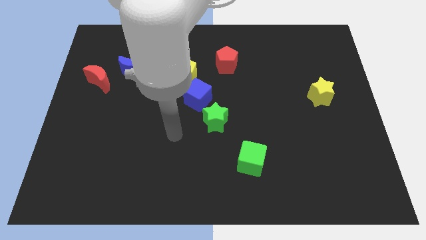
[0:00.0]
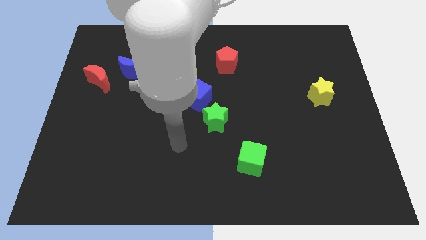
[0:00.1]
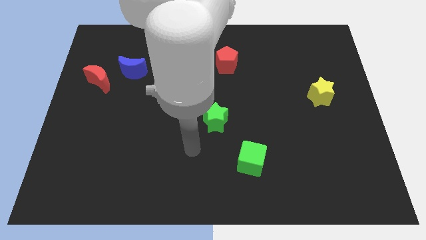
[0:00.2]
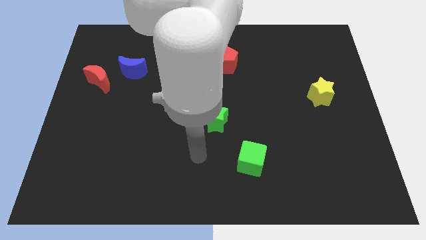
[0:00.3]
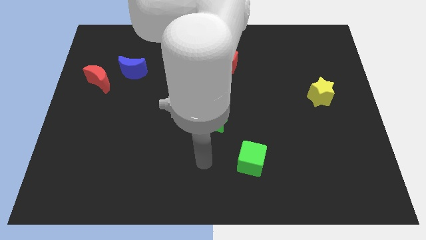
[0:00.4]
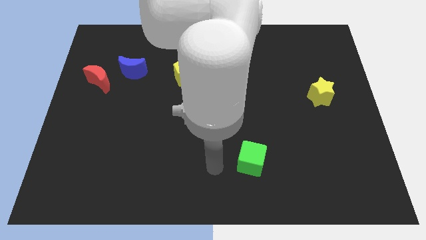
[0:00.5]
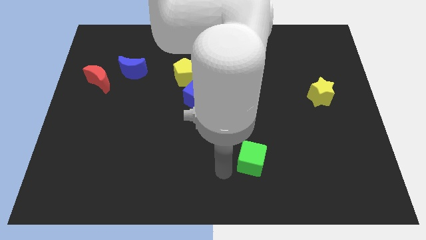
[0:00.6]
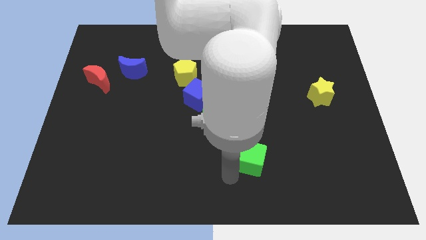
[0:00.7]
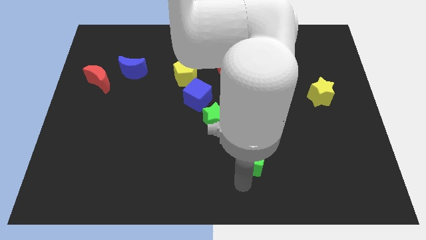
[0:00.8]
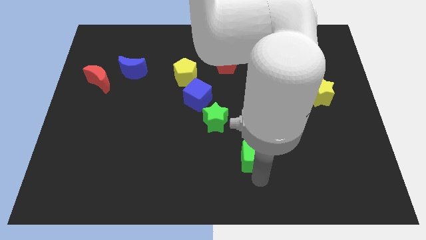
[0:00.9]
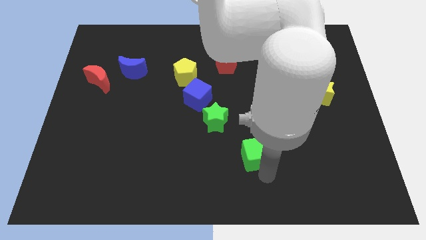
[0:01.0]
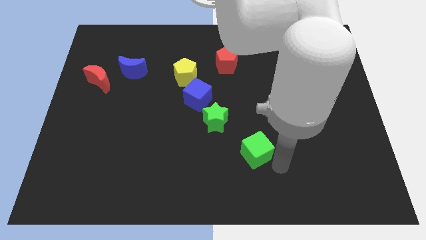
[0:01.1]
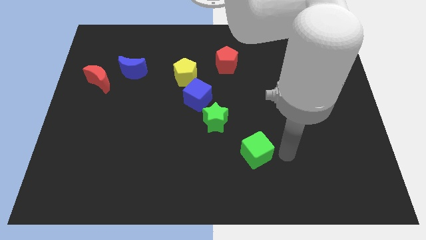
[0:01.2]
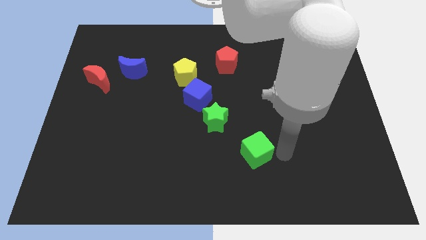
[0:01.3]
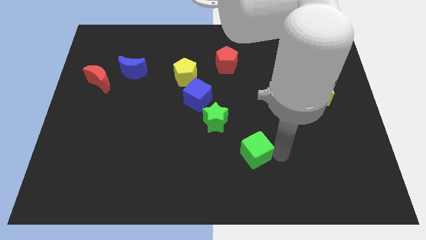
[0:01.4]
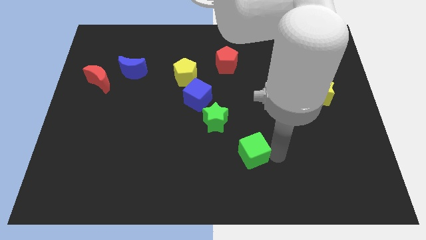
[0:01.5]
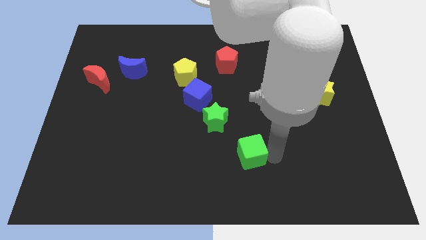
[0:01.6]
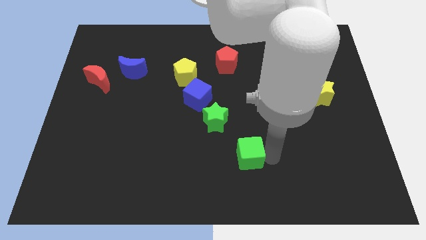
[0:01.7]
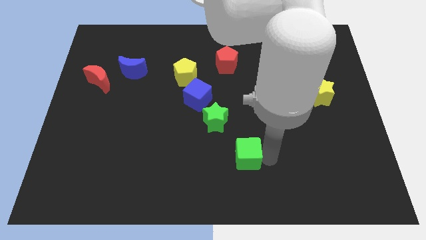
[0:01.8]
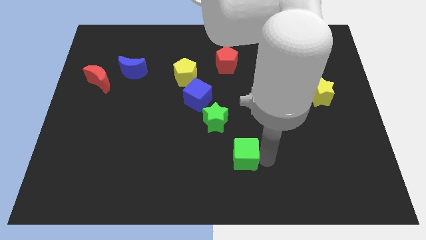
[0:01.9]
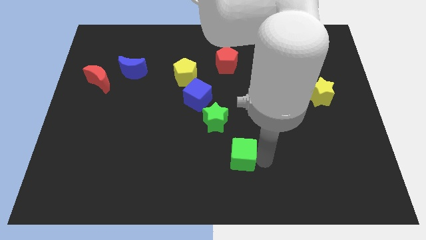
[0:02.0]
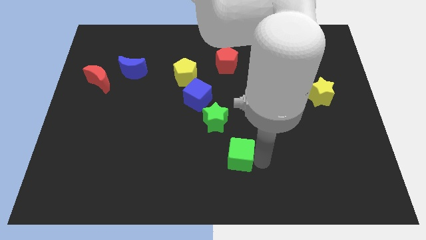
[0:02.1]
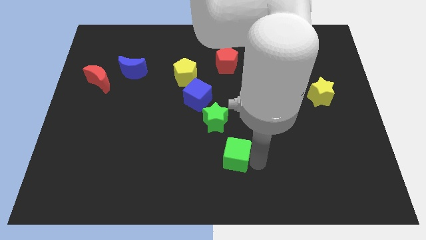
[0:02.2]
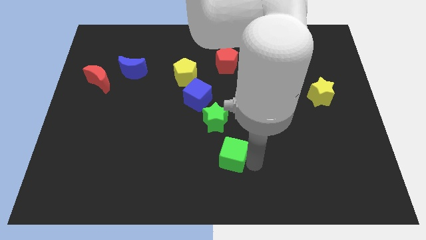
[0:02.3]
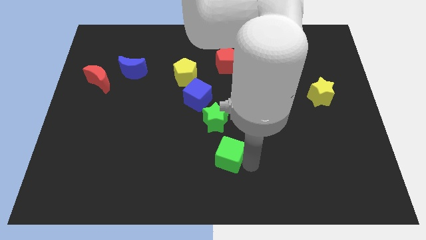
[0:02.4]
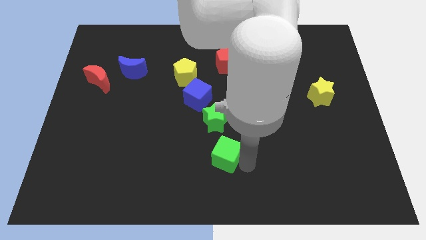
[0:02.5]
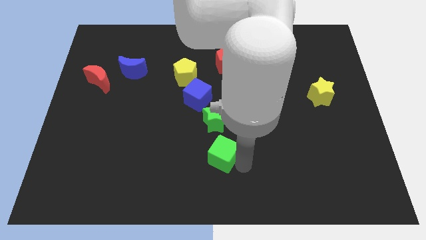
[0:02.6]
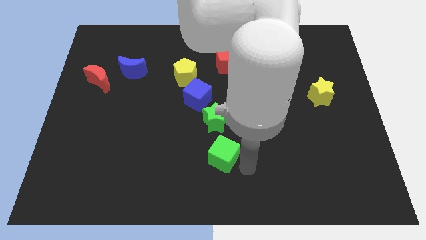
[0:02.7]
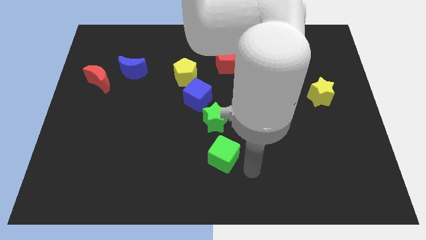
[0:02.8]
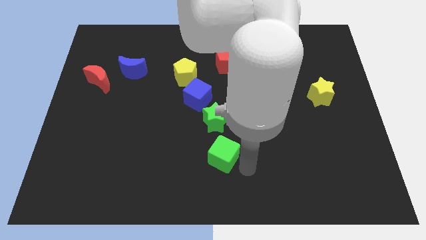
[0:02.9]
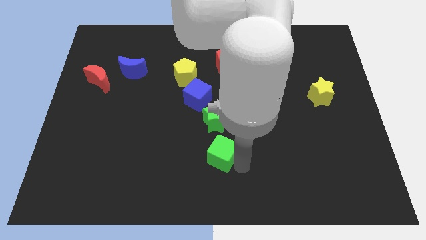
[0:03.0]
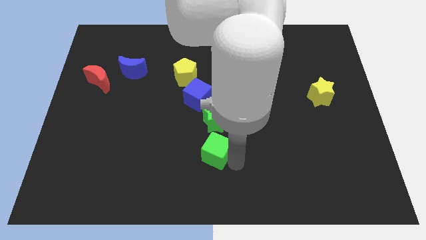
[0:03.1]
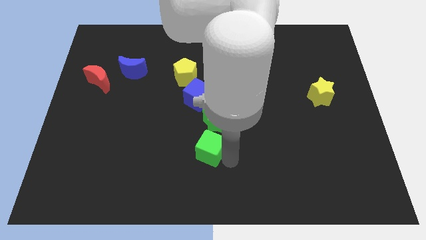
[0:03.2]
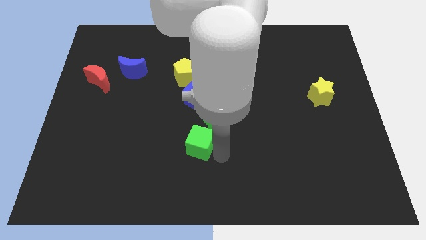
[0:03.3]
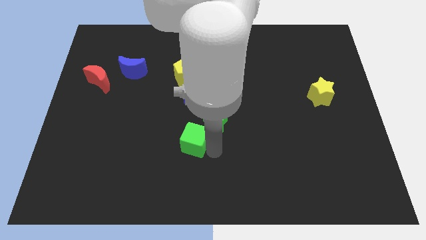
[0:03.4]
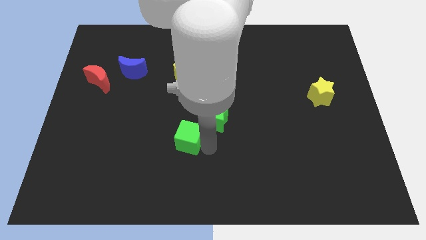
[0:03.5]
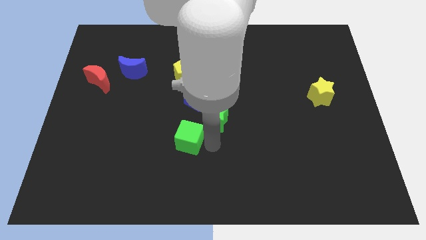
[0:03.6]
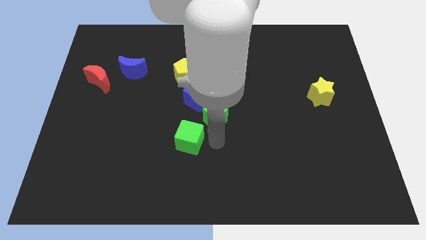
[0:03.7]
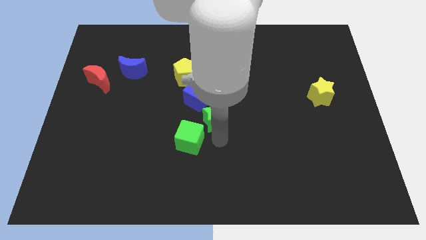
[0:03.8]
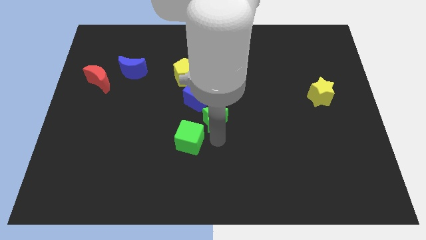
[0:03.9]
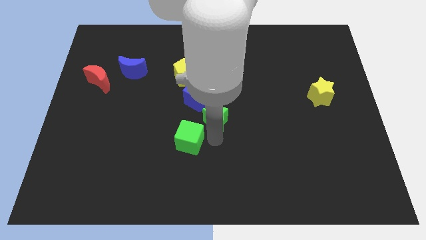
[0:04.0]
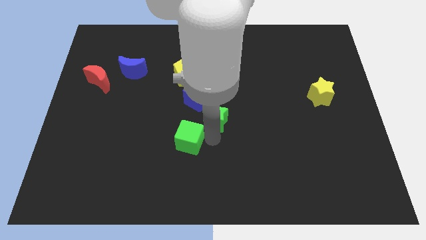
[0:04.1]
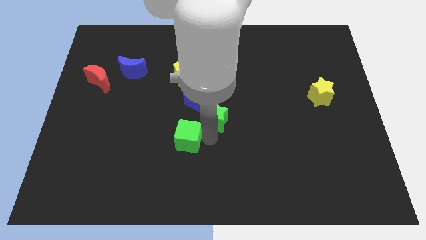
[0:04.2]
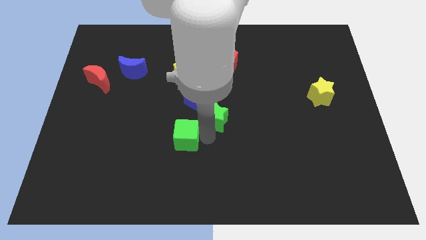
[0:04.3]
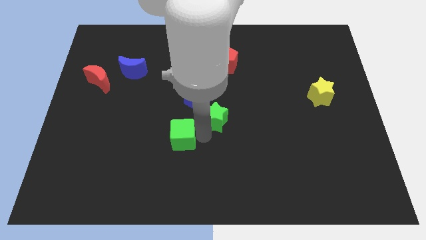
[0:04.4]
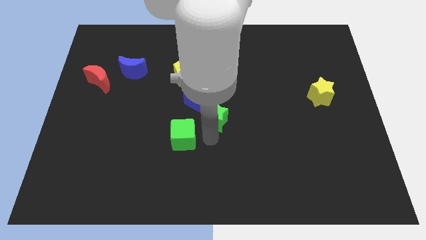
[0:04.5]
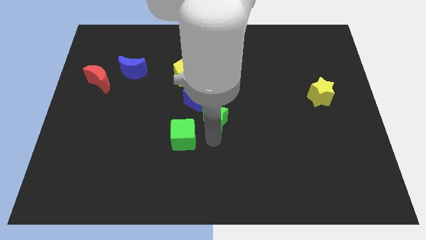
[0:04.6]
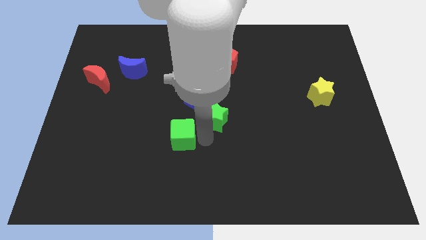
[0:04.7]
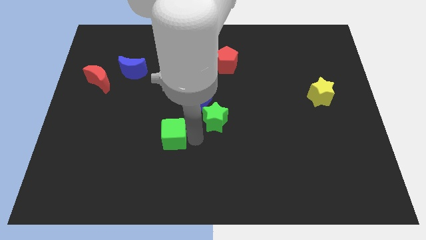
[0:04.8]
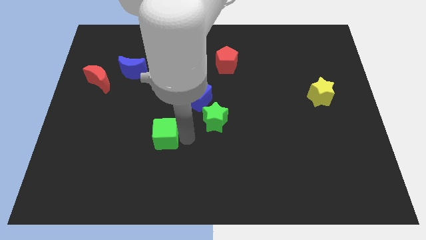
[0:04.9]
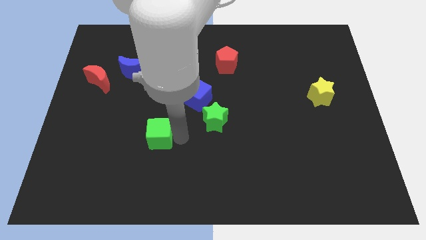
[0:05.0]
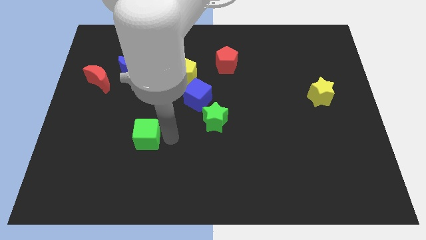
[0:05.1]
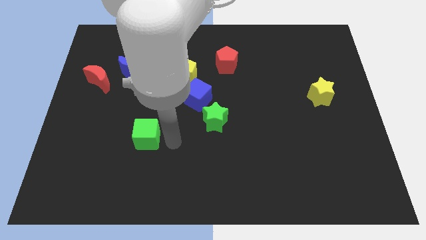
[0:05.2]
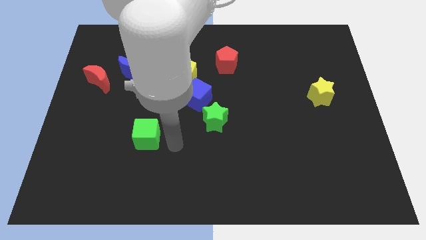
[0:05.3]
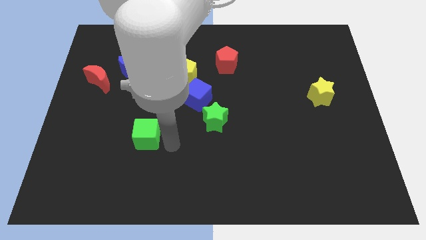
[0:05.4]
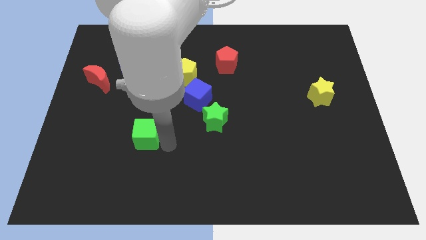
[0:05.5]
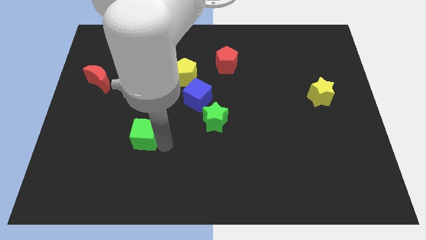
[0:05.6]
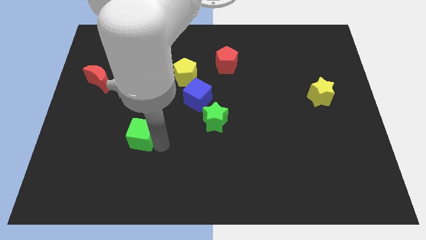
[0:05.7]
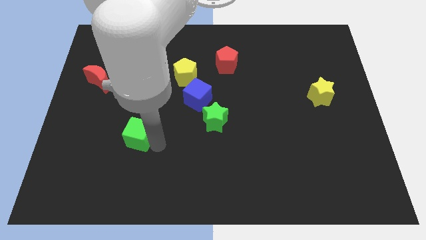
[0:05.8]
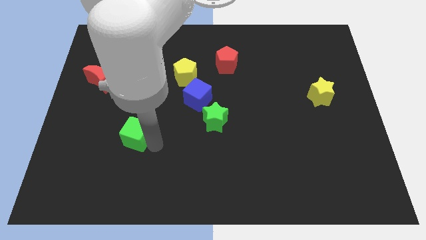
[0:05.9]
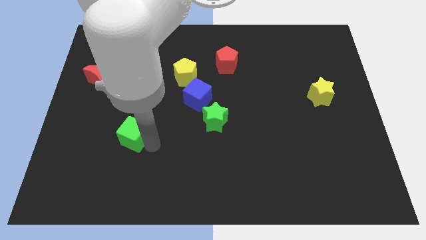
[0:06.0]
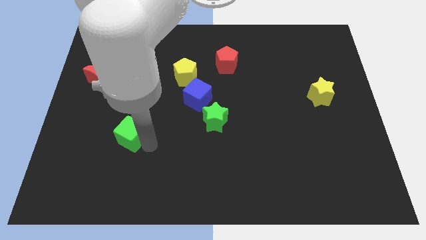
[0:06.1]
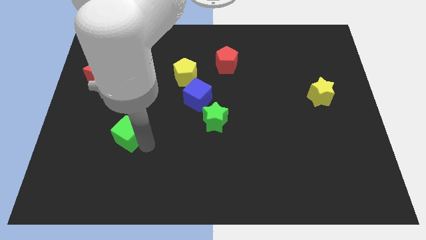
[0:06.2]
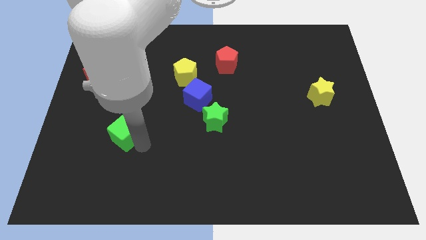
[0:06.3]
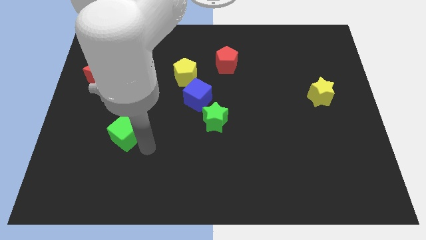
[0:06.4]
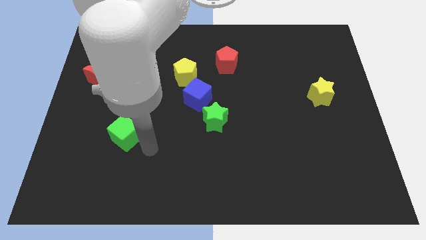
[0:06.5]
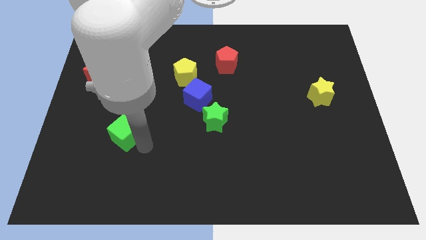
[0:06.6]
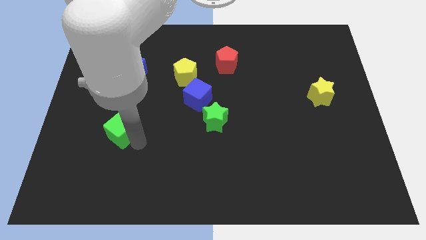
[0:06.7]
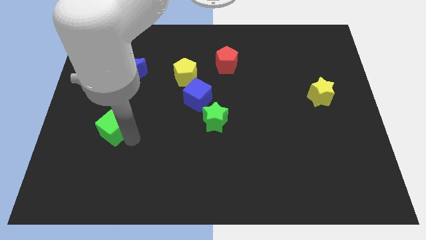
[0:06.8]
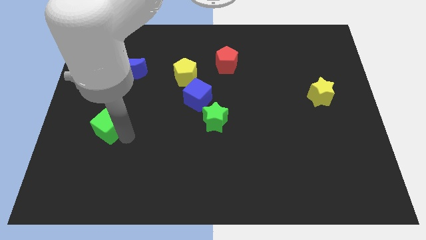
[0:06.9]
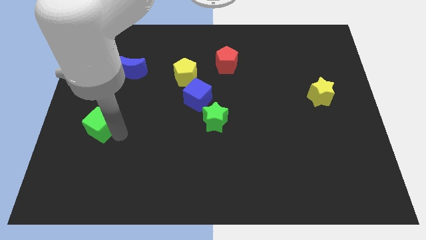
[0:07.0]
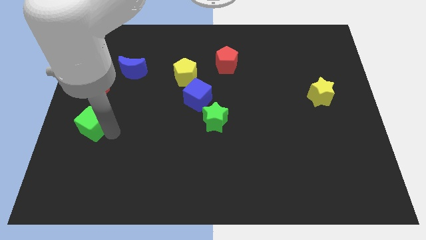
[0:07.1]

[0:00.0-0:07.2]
move the green cube to the left side of the board
